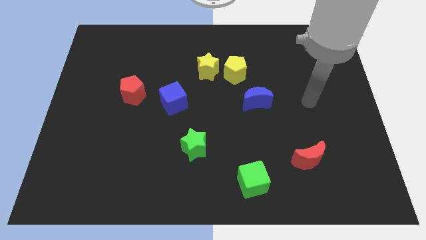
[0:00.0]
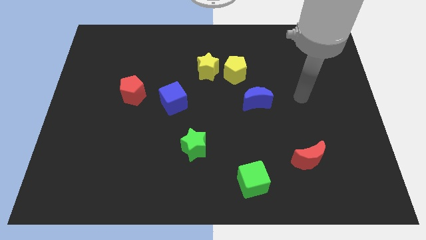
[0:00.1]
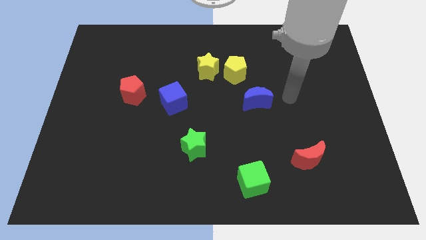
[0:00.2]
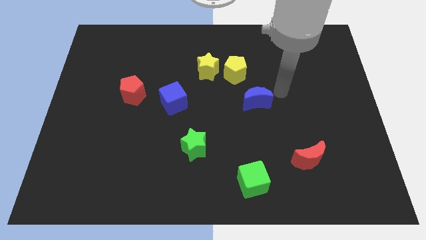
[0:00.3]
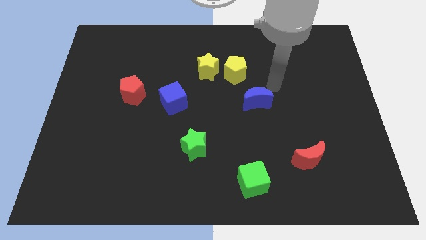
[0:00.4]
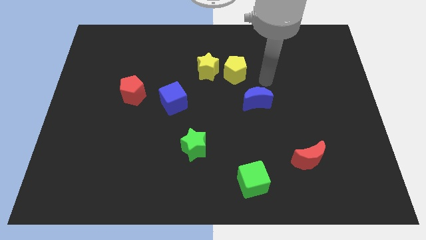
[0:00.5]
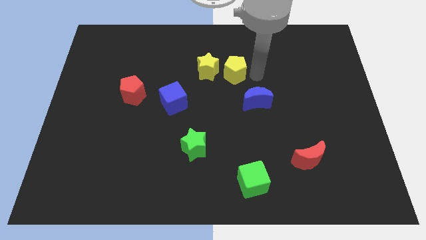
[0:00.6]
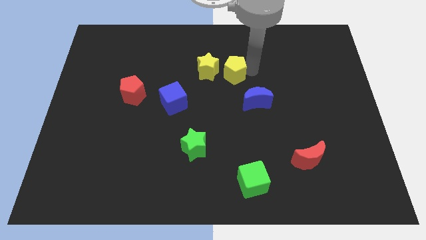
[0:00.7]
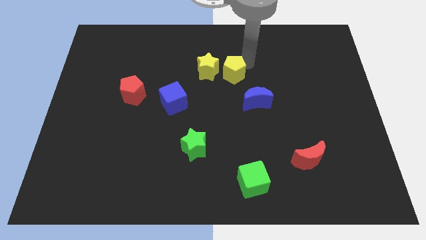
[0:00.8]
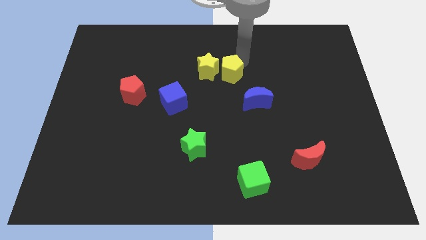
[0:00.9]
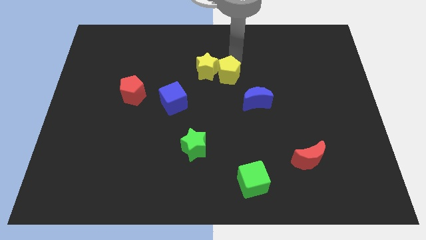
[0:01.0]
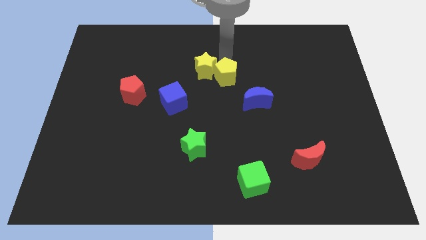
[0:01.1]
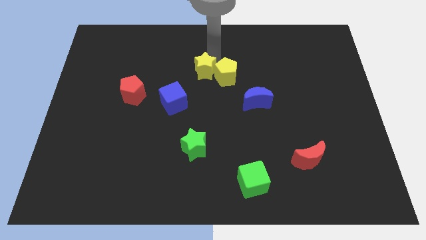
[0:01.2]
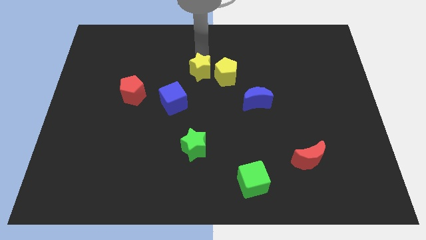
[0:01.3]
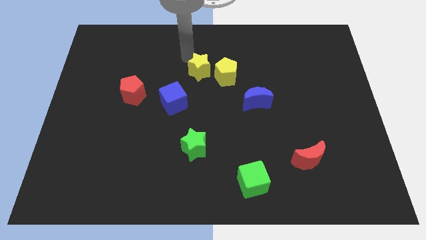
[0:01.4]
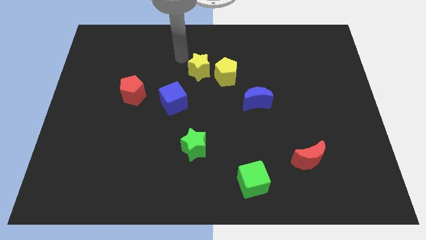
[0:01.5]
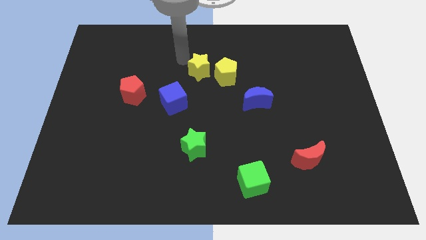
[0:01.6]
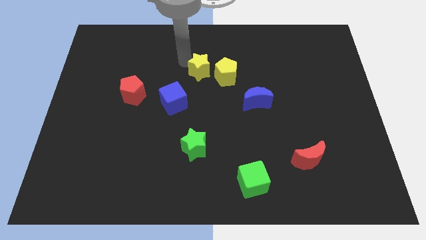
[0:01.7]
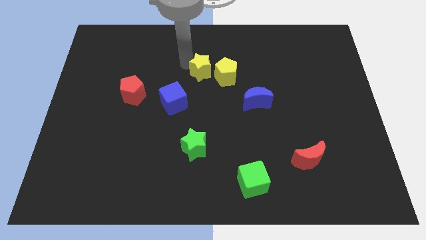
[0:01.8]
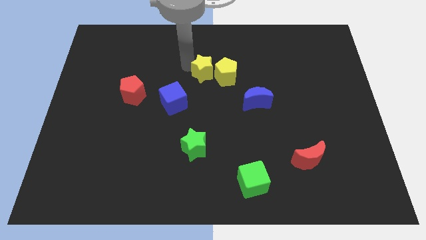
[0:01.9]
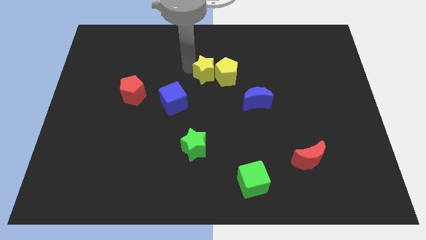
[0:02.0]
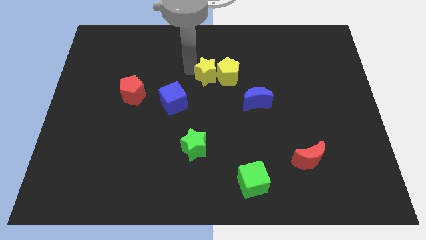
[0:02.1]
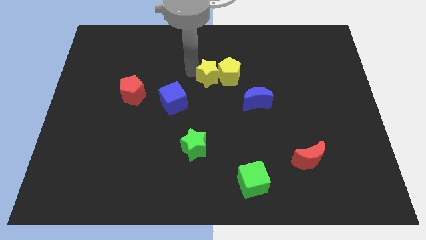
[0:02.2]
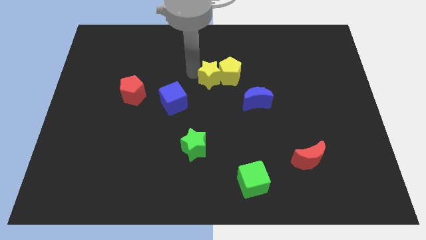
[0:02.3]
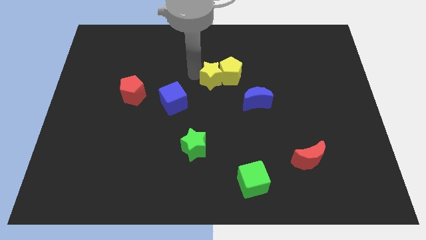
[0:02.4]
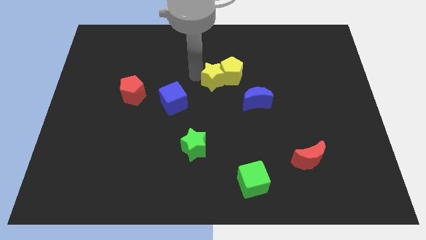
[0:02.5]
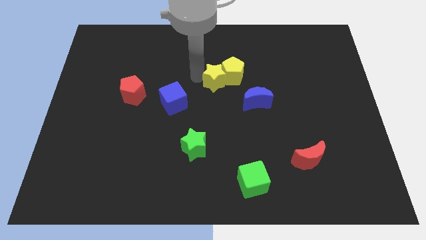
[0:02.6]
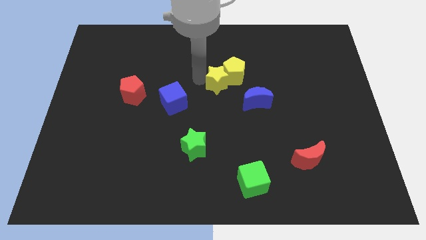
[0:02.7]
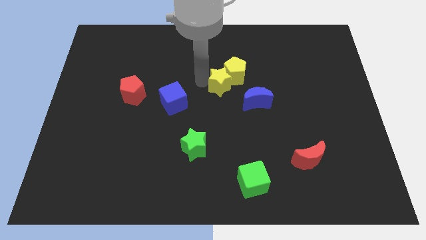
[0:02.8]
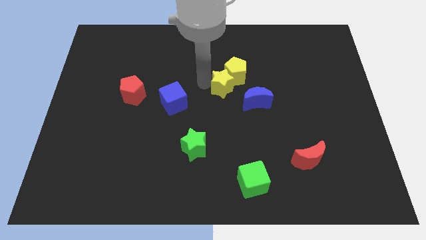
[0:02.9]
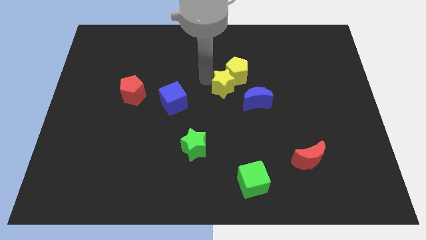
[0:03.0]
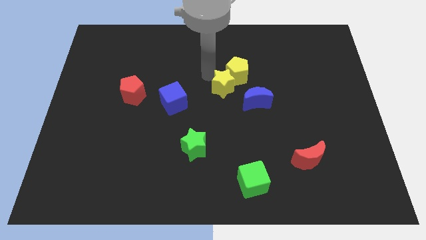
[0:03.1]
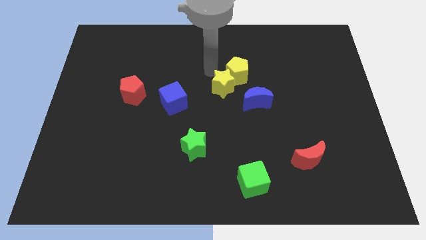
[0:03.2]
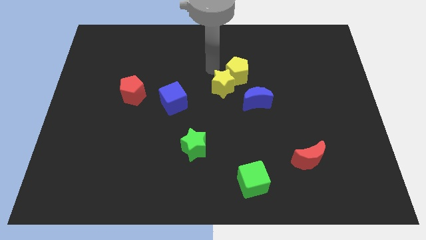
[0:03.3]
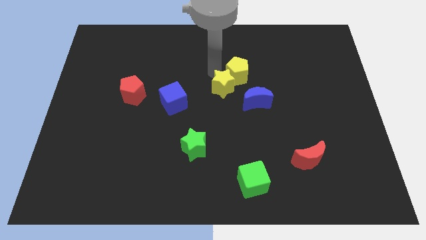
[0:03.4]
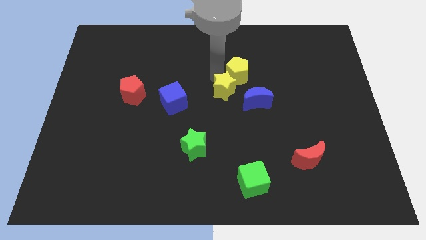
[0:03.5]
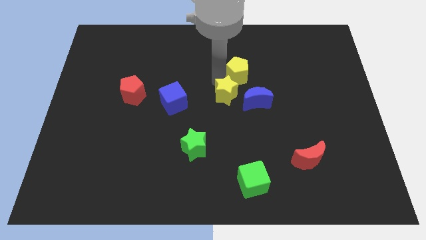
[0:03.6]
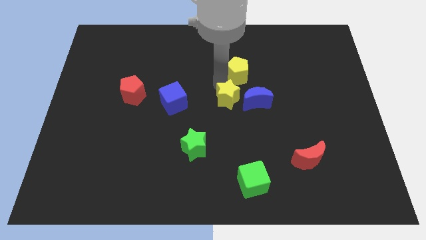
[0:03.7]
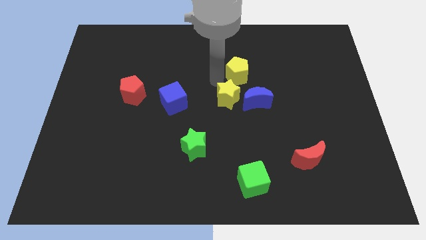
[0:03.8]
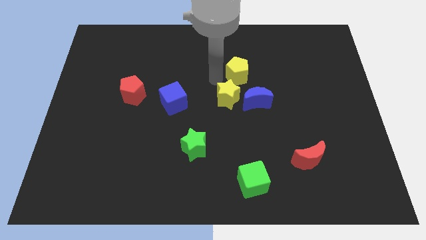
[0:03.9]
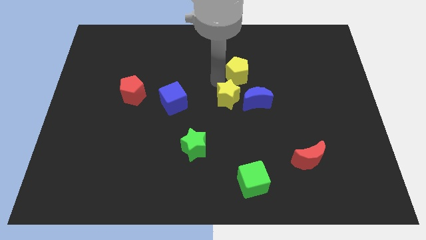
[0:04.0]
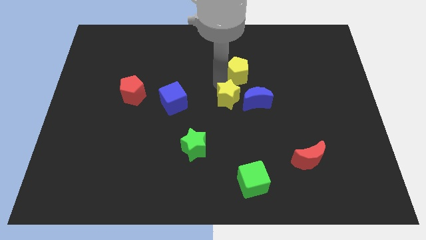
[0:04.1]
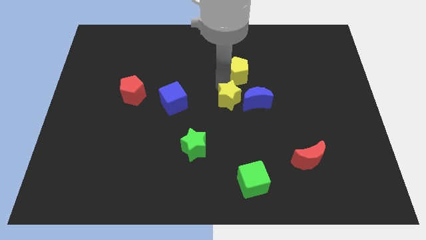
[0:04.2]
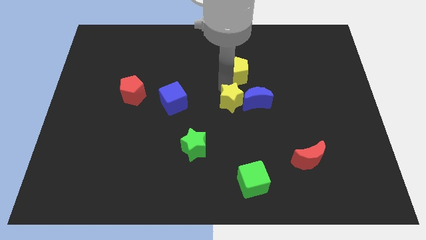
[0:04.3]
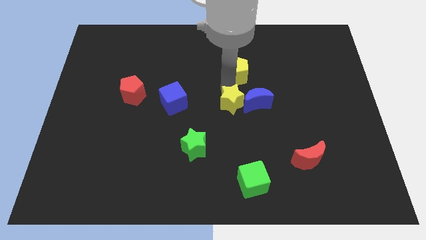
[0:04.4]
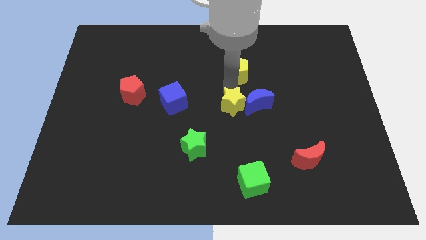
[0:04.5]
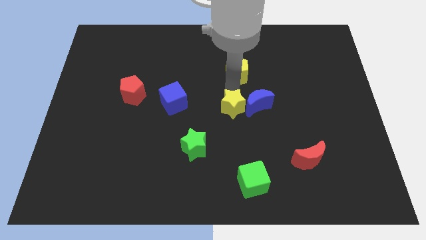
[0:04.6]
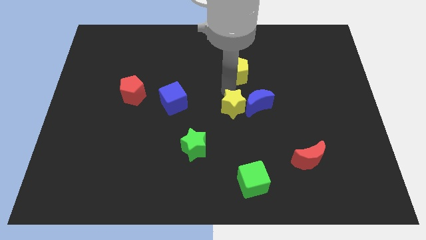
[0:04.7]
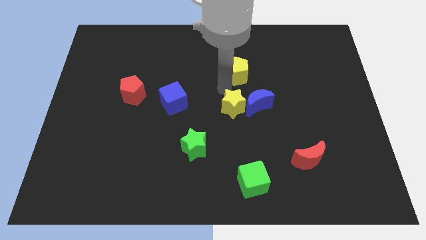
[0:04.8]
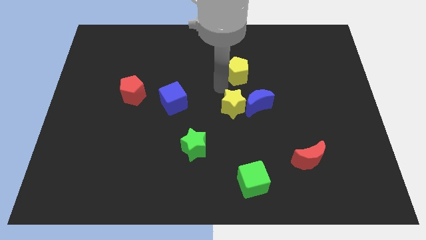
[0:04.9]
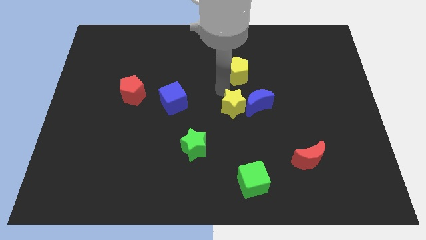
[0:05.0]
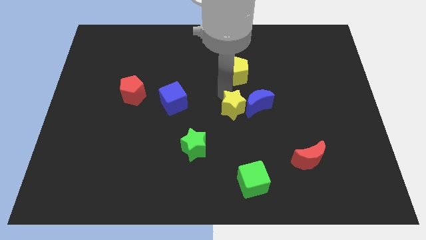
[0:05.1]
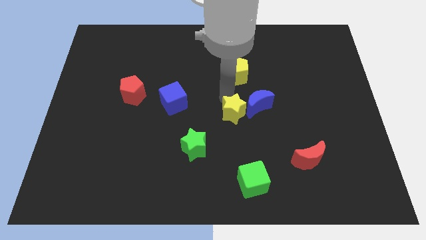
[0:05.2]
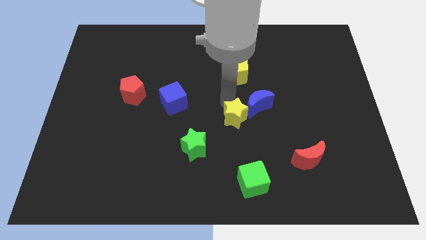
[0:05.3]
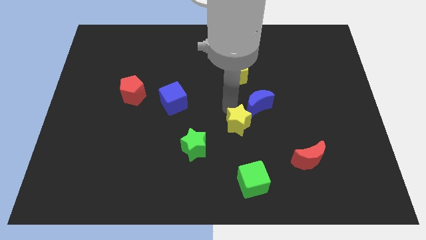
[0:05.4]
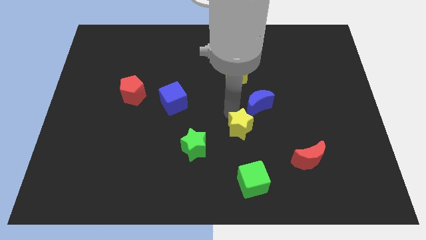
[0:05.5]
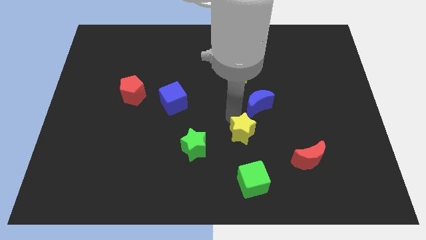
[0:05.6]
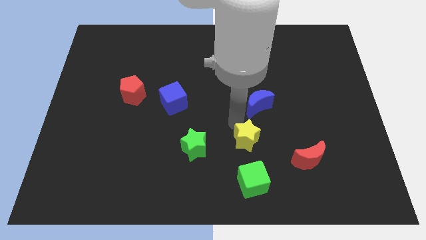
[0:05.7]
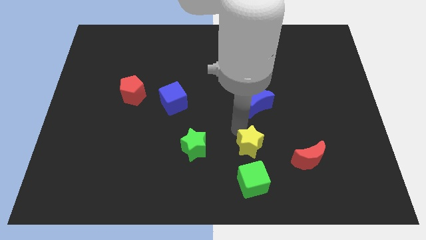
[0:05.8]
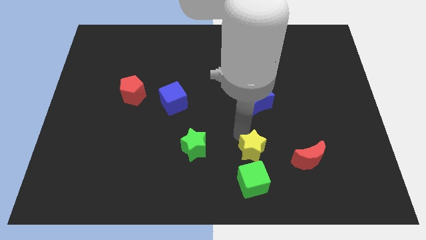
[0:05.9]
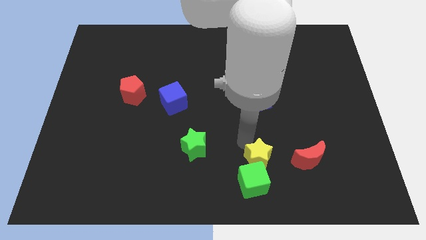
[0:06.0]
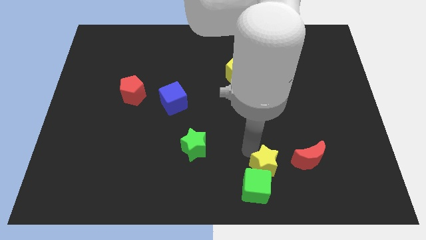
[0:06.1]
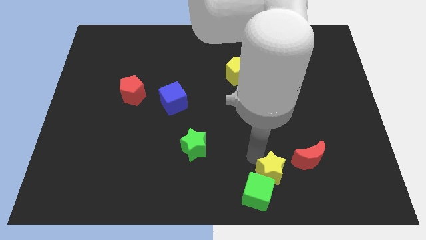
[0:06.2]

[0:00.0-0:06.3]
push the yellow star to the bottom left side of the red moon

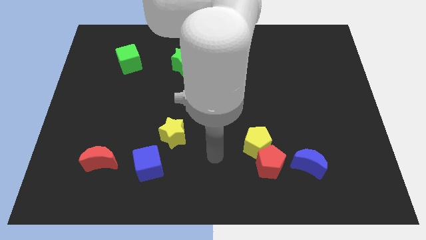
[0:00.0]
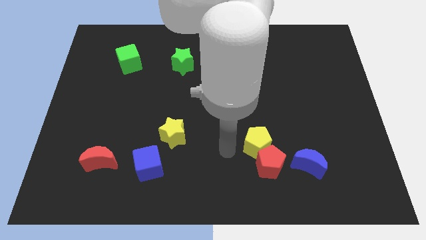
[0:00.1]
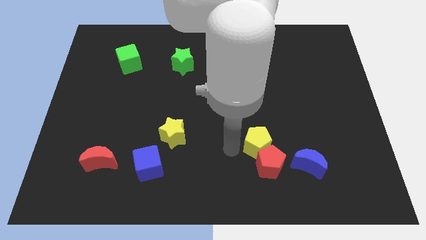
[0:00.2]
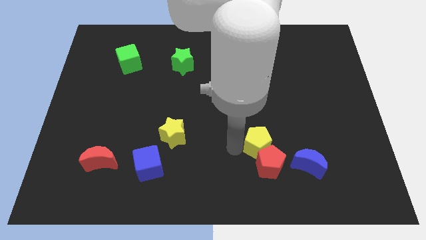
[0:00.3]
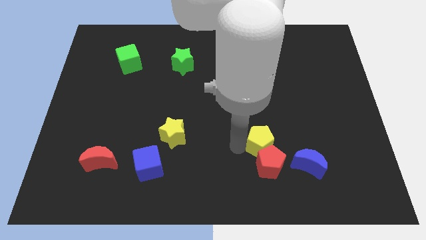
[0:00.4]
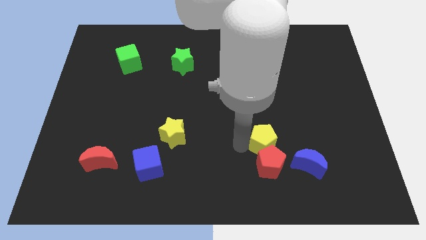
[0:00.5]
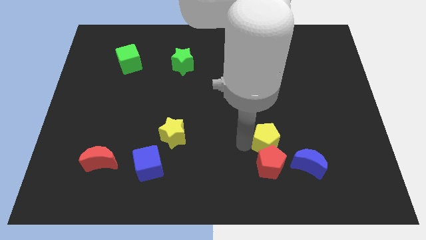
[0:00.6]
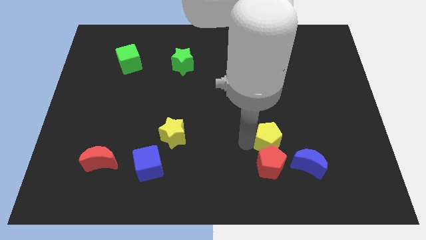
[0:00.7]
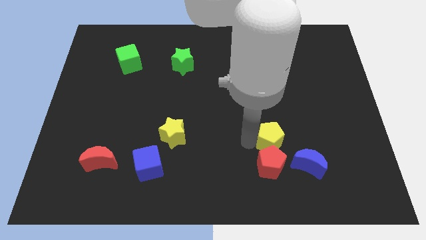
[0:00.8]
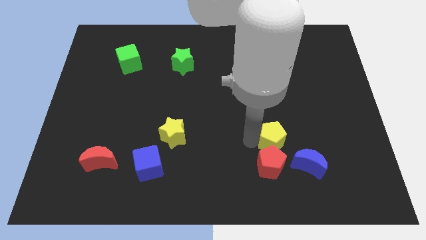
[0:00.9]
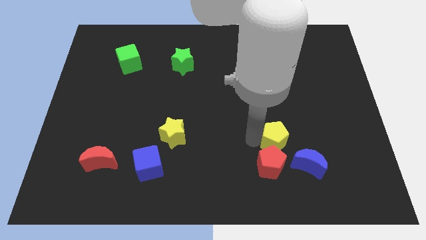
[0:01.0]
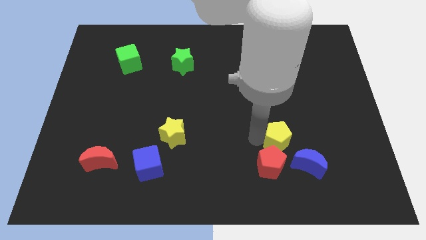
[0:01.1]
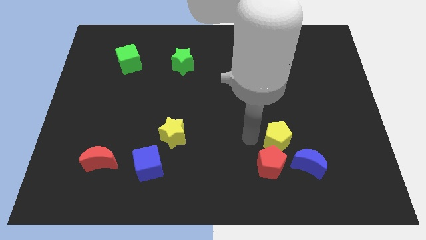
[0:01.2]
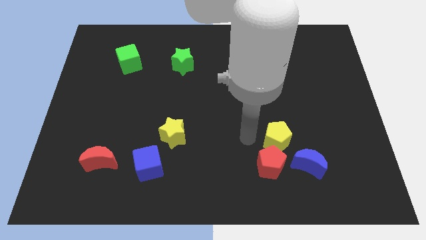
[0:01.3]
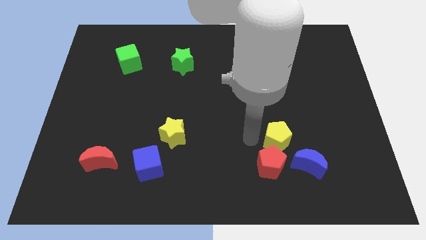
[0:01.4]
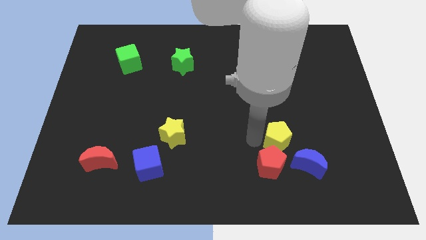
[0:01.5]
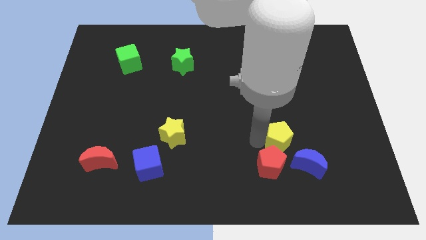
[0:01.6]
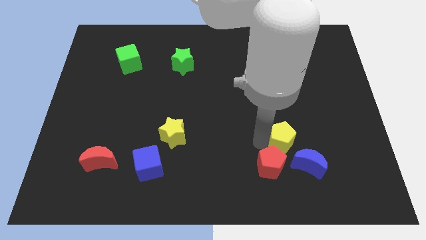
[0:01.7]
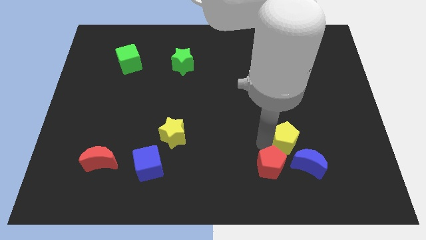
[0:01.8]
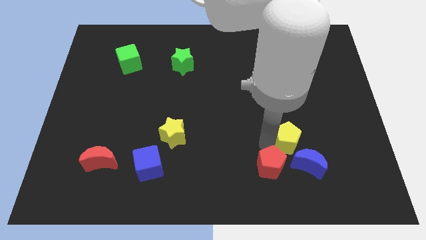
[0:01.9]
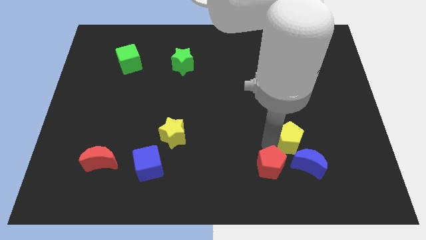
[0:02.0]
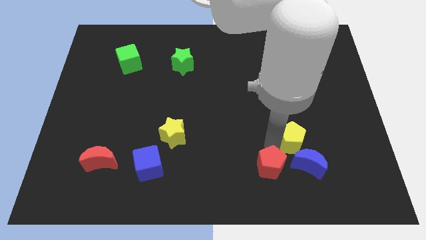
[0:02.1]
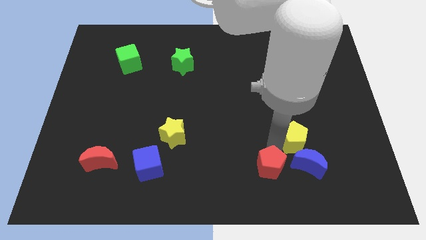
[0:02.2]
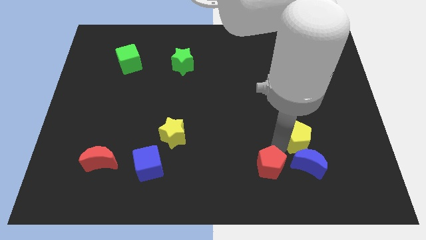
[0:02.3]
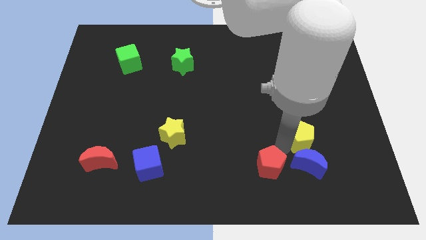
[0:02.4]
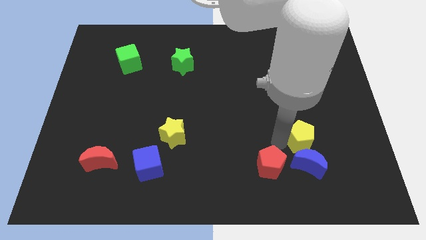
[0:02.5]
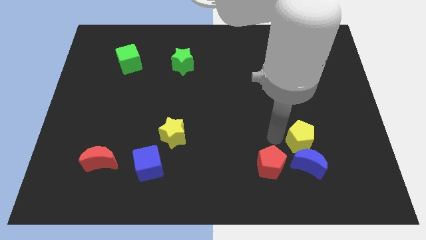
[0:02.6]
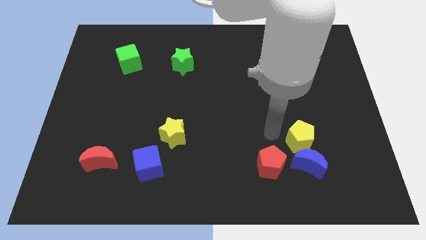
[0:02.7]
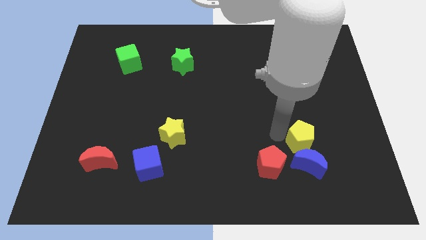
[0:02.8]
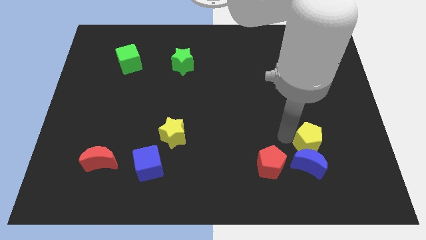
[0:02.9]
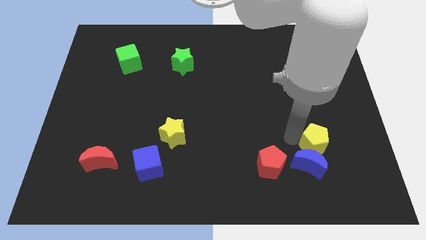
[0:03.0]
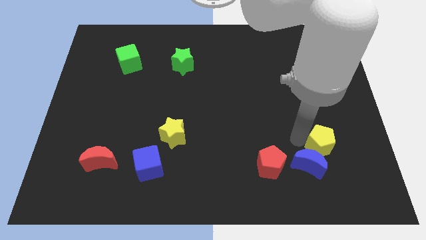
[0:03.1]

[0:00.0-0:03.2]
push the yellow pentagon right of the red pentagon
